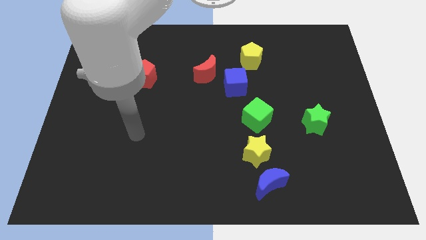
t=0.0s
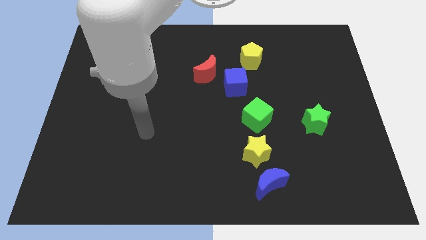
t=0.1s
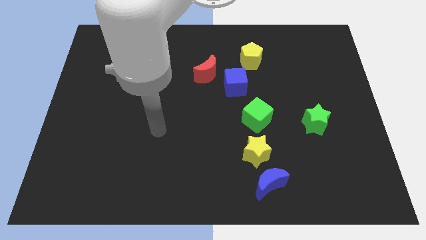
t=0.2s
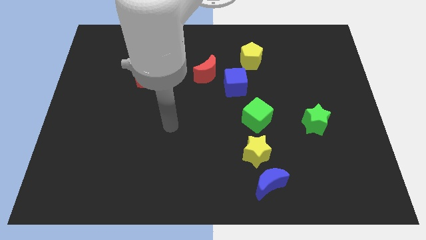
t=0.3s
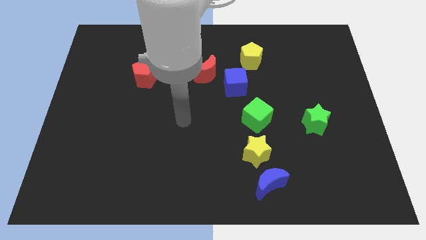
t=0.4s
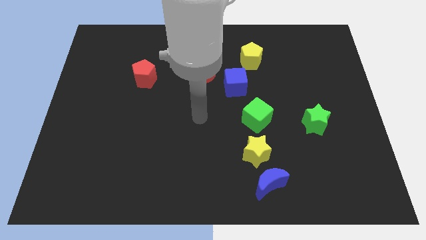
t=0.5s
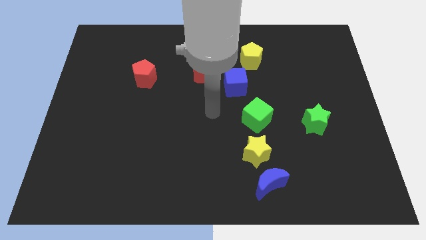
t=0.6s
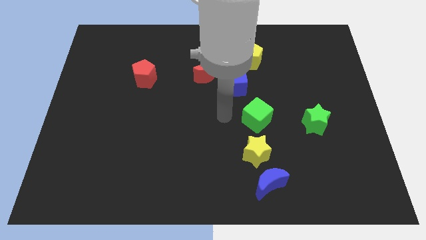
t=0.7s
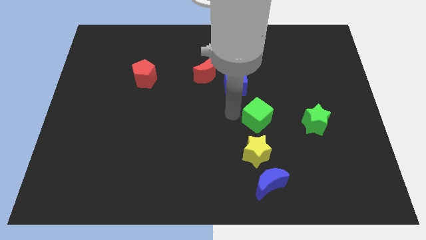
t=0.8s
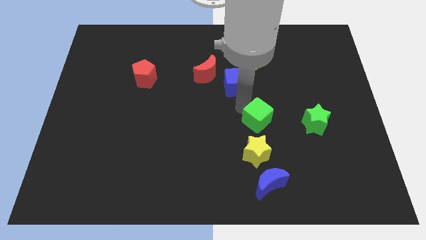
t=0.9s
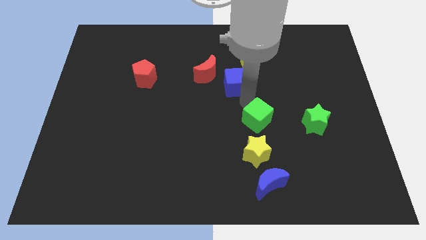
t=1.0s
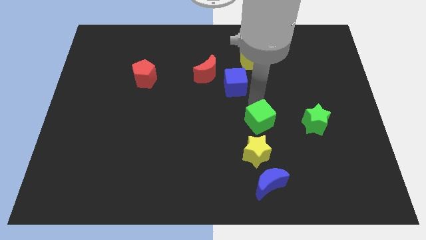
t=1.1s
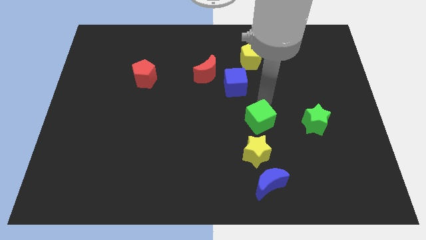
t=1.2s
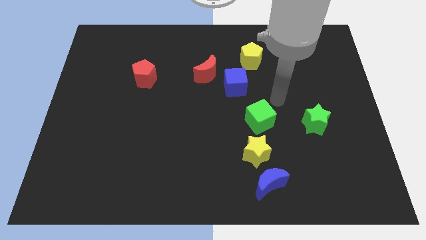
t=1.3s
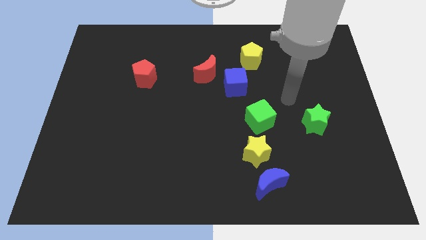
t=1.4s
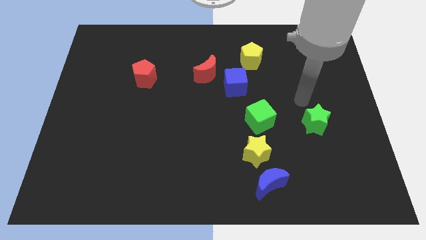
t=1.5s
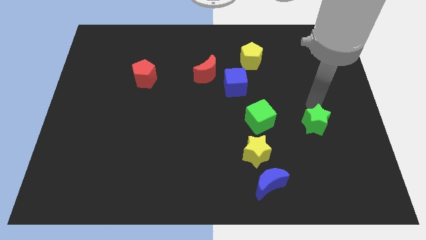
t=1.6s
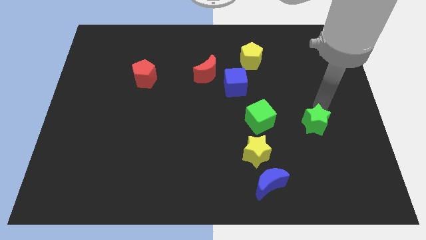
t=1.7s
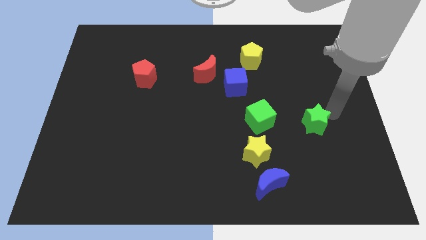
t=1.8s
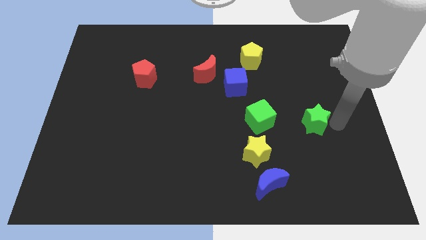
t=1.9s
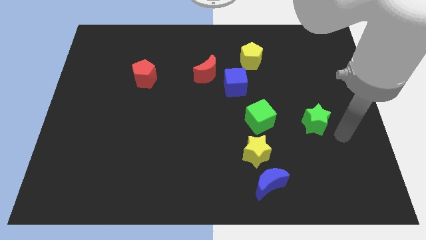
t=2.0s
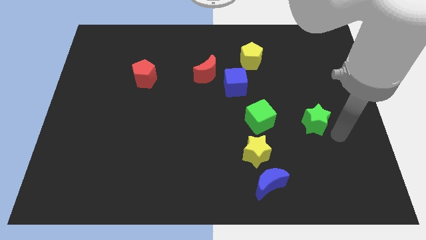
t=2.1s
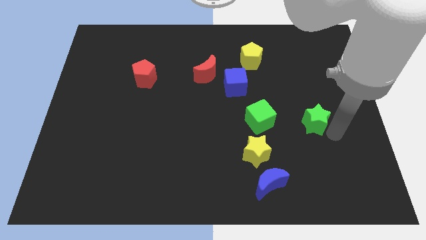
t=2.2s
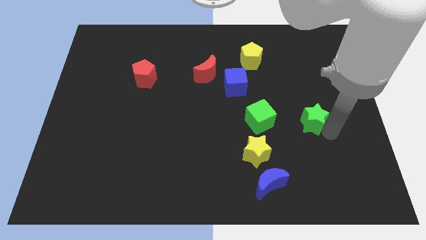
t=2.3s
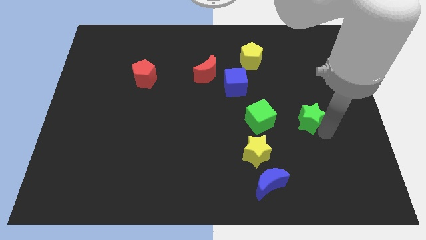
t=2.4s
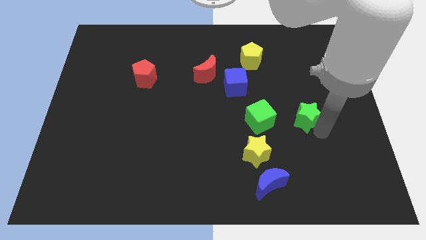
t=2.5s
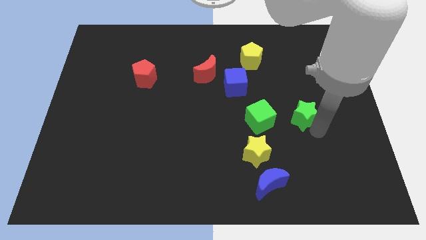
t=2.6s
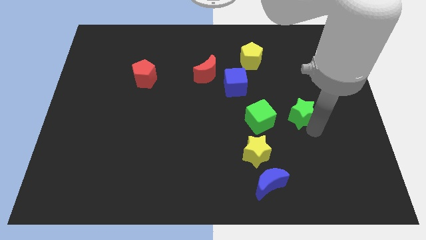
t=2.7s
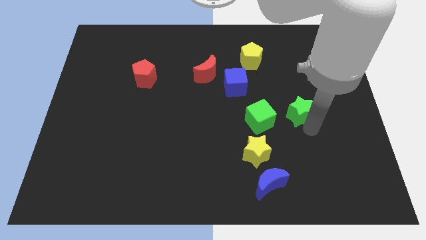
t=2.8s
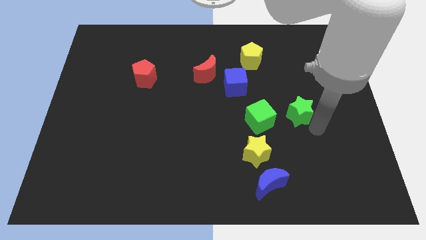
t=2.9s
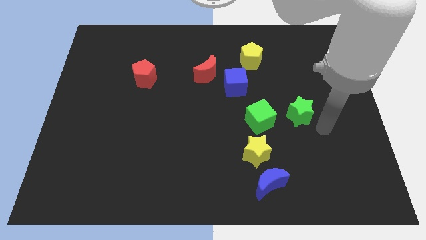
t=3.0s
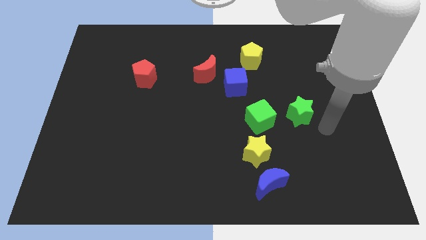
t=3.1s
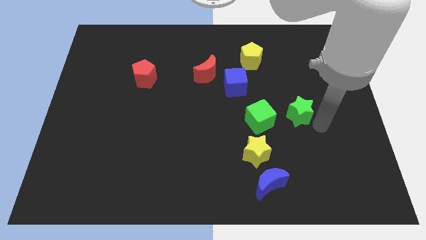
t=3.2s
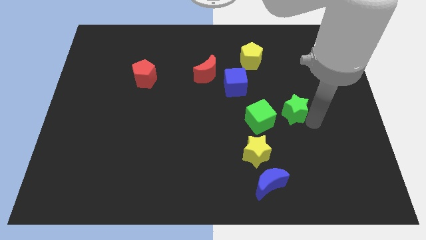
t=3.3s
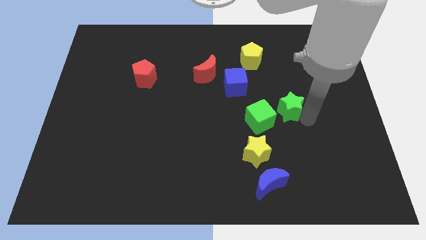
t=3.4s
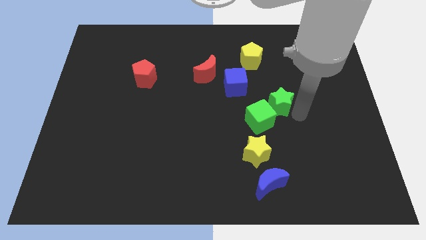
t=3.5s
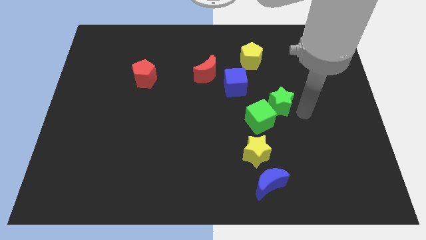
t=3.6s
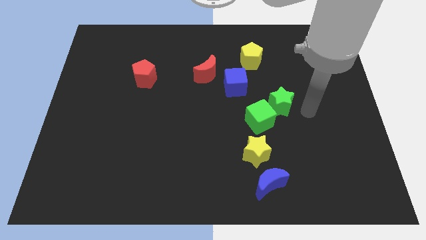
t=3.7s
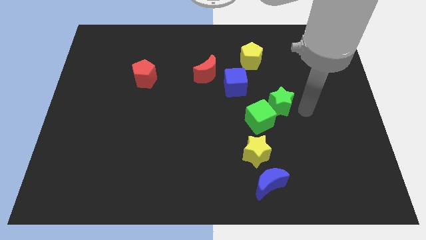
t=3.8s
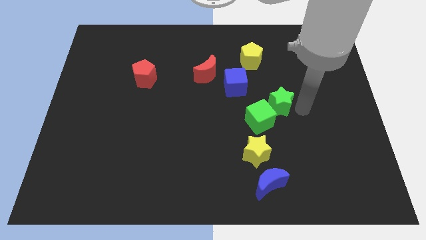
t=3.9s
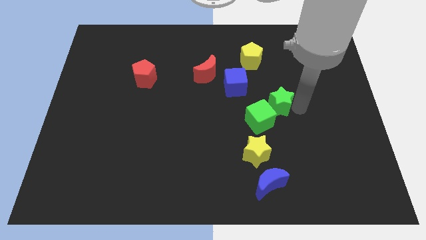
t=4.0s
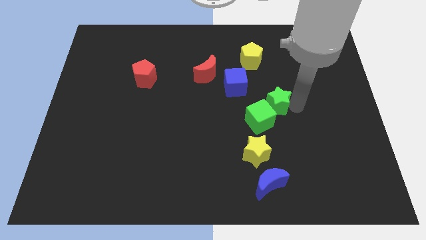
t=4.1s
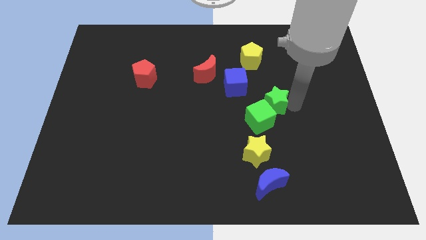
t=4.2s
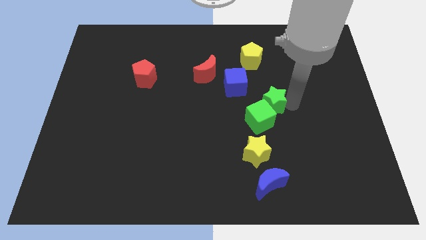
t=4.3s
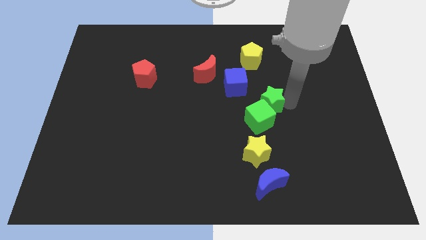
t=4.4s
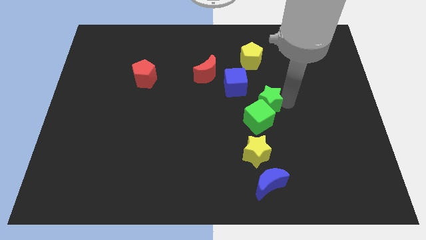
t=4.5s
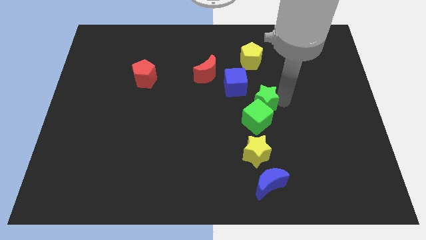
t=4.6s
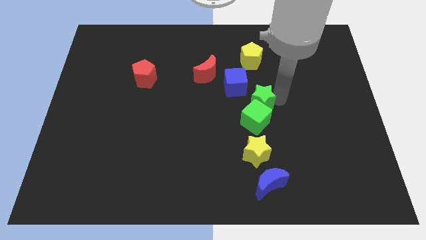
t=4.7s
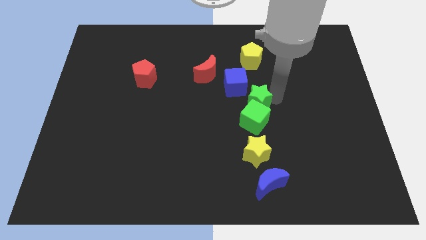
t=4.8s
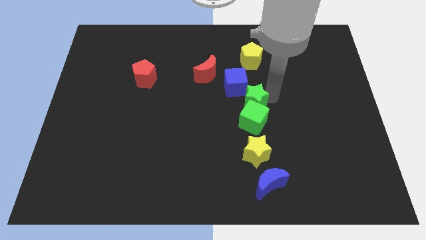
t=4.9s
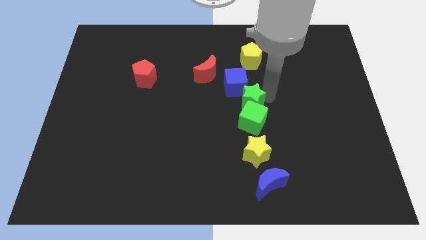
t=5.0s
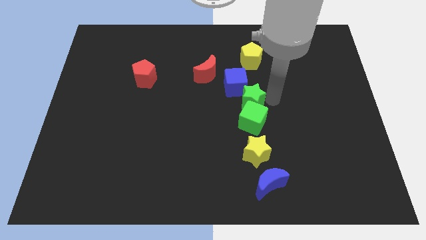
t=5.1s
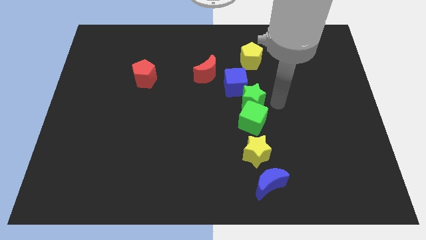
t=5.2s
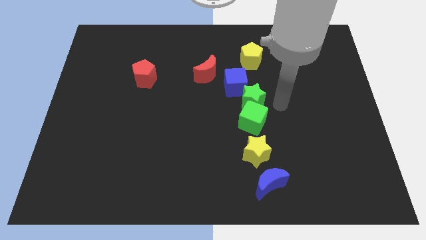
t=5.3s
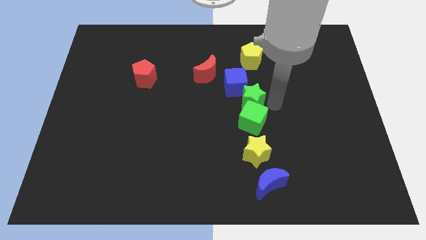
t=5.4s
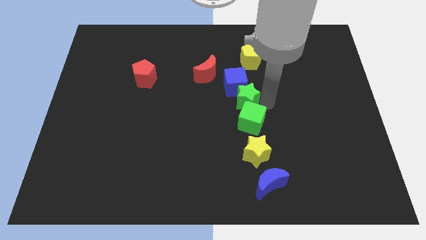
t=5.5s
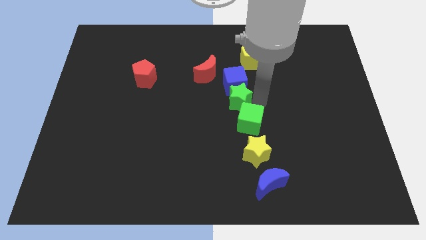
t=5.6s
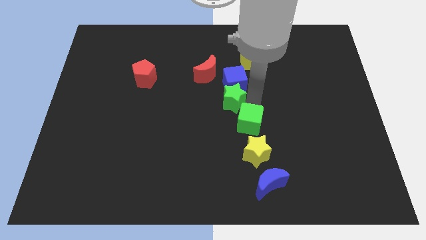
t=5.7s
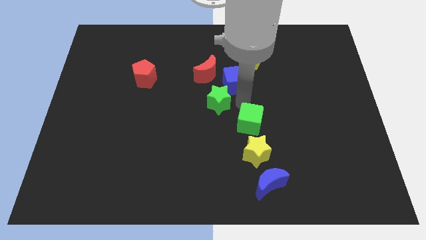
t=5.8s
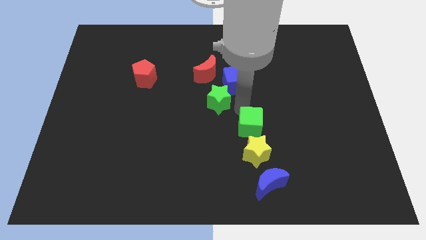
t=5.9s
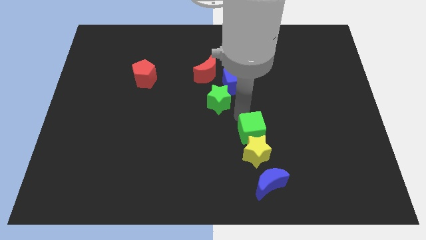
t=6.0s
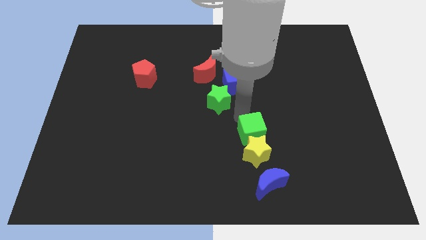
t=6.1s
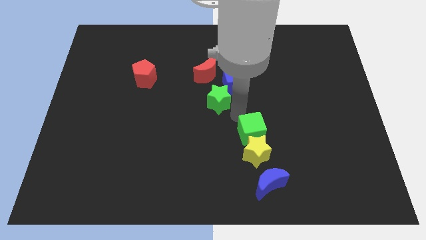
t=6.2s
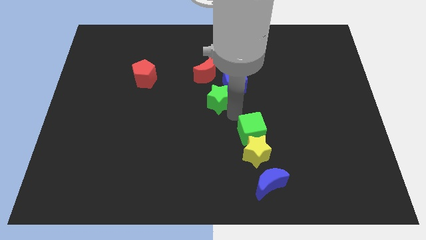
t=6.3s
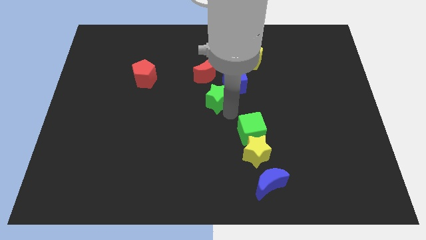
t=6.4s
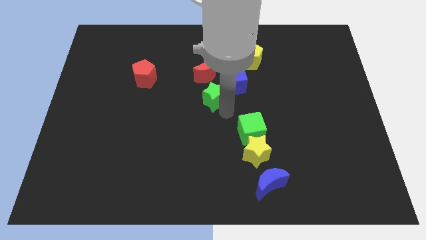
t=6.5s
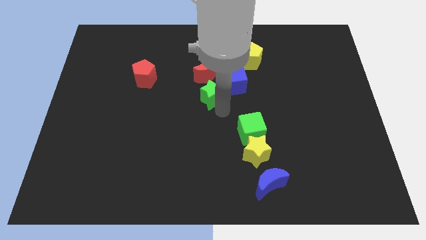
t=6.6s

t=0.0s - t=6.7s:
push the green star left of the blue cube
